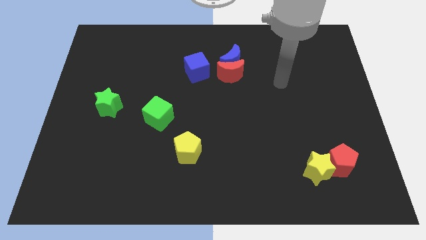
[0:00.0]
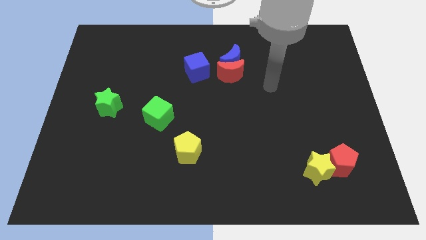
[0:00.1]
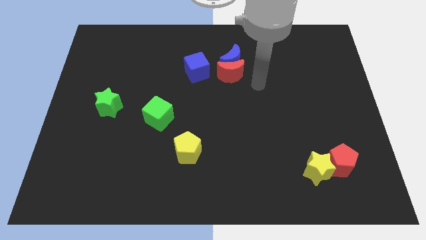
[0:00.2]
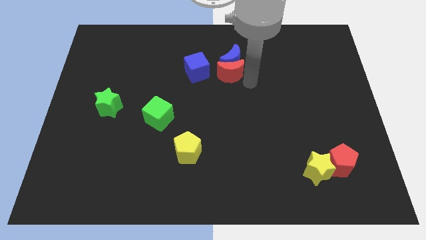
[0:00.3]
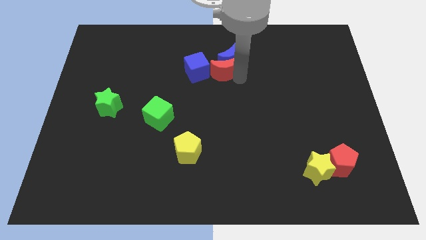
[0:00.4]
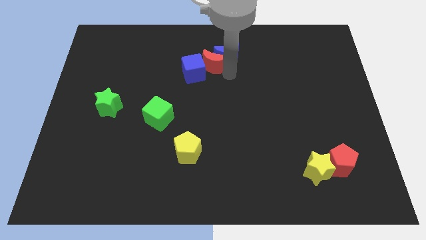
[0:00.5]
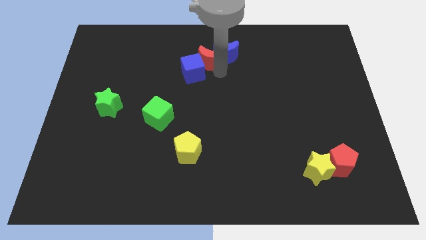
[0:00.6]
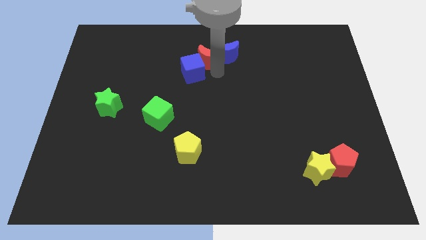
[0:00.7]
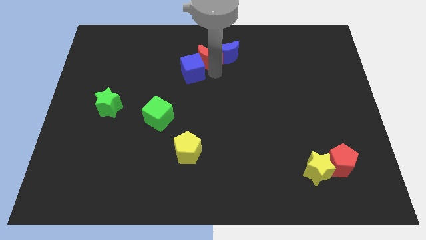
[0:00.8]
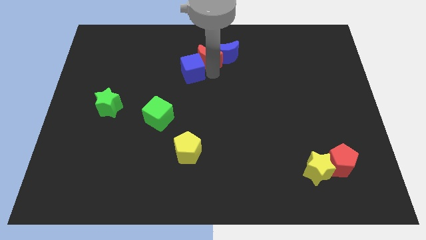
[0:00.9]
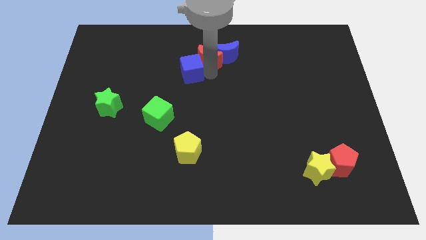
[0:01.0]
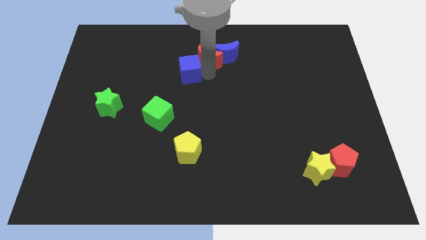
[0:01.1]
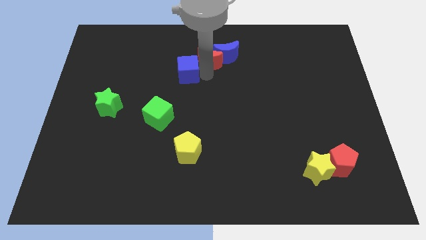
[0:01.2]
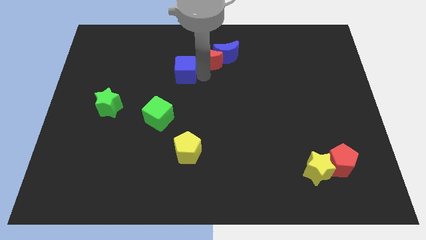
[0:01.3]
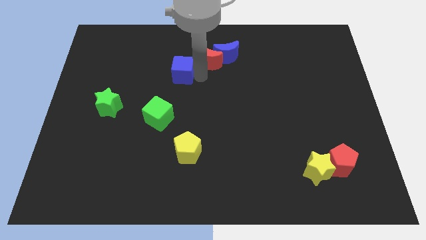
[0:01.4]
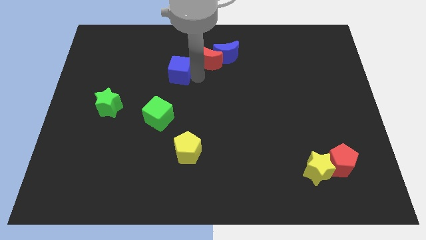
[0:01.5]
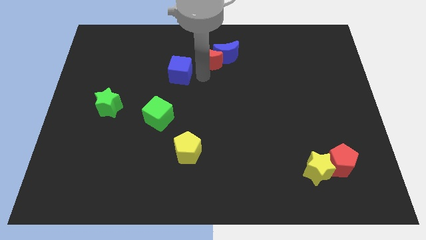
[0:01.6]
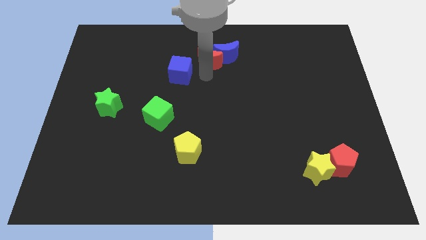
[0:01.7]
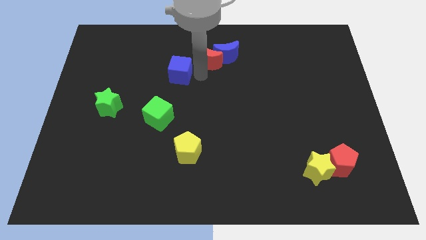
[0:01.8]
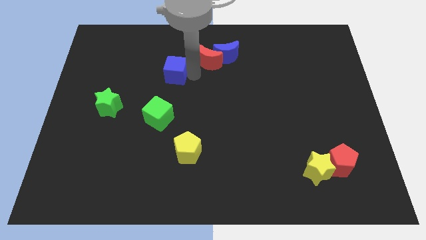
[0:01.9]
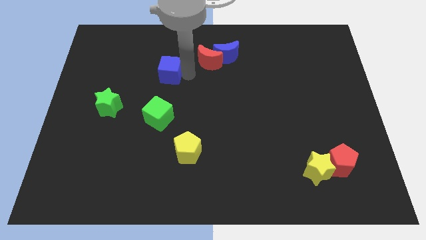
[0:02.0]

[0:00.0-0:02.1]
slightly move the blue cube left

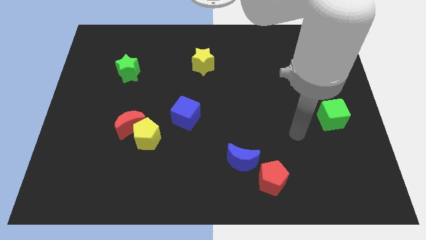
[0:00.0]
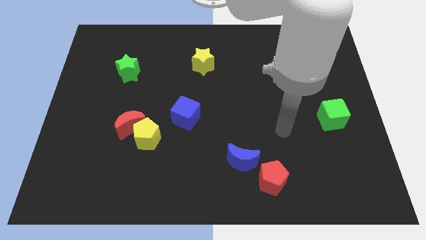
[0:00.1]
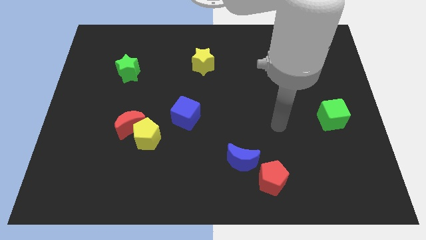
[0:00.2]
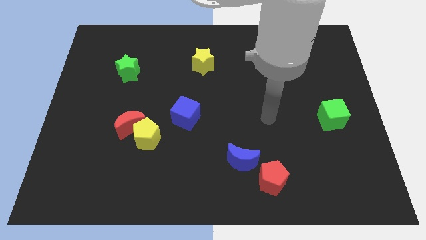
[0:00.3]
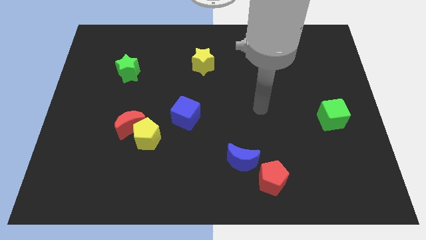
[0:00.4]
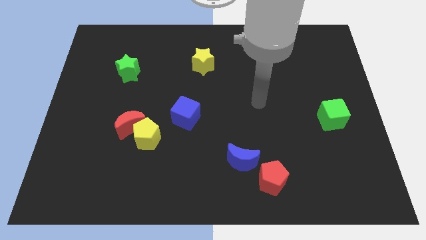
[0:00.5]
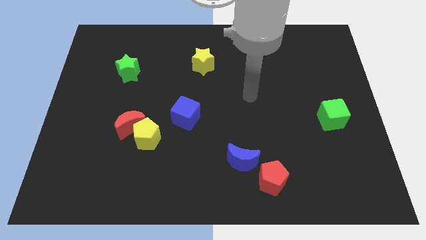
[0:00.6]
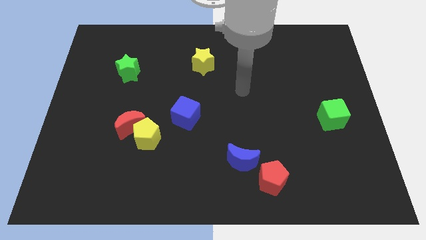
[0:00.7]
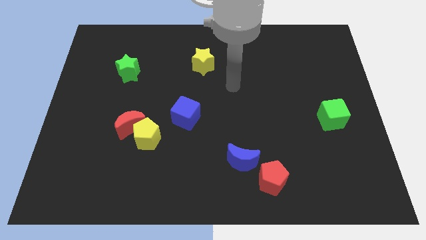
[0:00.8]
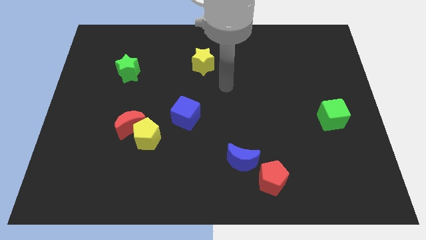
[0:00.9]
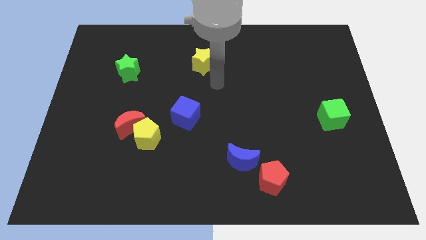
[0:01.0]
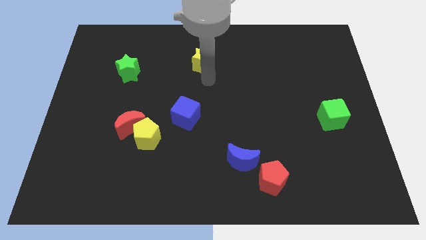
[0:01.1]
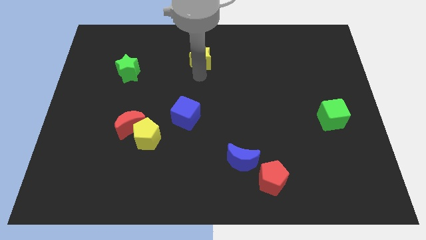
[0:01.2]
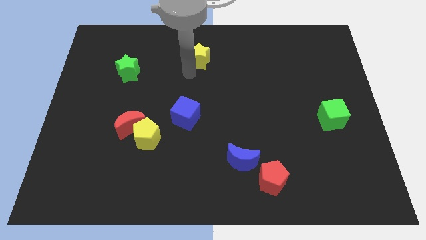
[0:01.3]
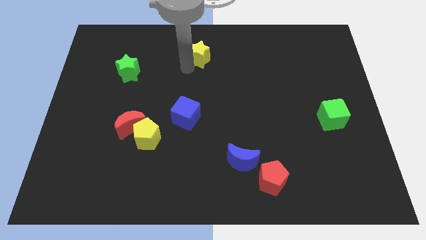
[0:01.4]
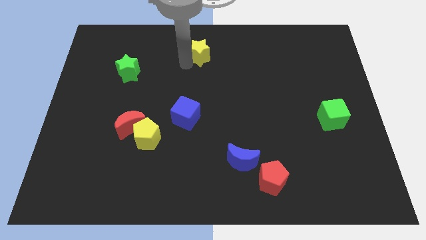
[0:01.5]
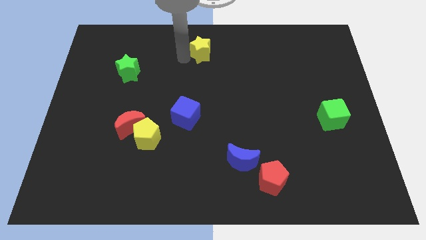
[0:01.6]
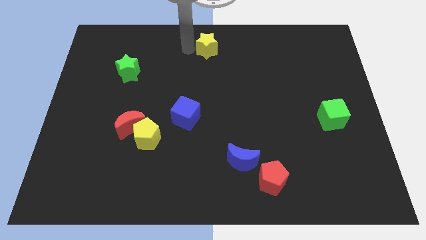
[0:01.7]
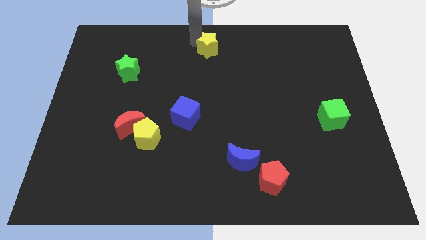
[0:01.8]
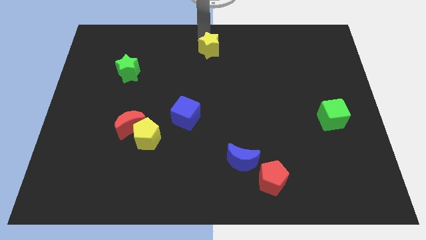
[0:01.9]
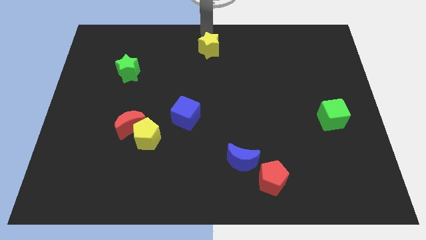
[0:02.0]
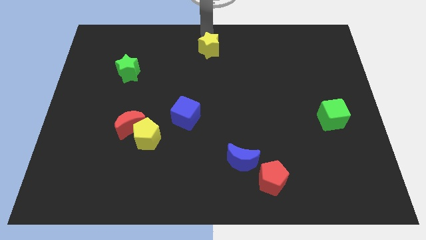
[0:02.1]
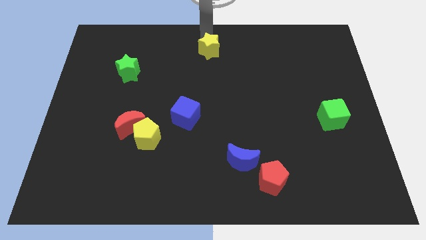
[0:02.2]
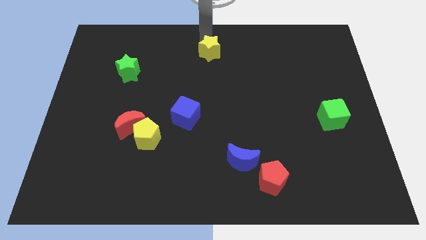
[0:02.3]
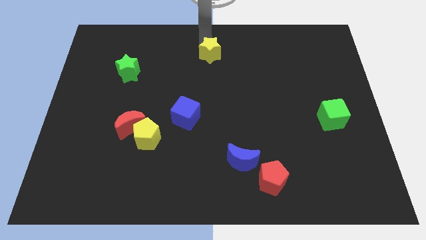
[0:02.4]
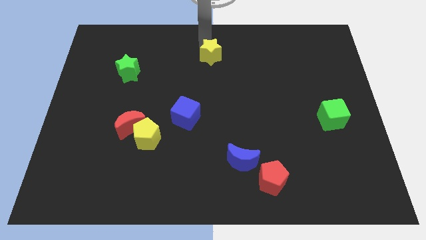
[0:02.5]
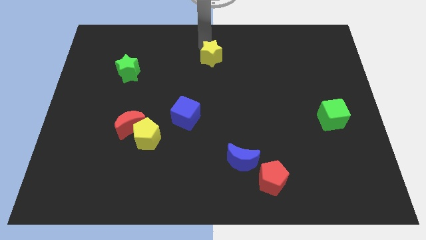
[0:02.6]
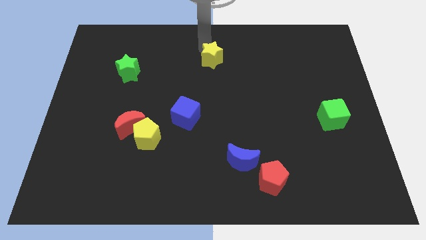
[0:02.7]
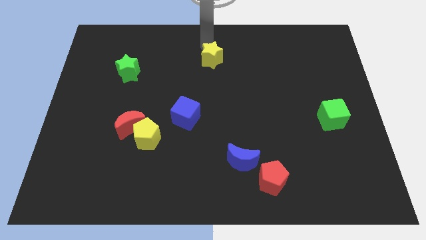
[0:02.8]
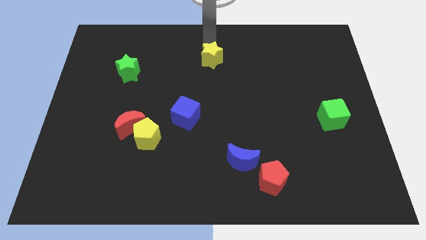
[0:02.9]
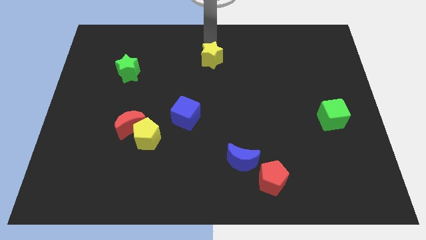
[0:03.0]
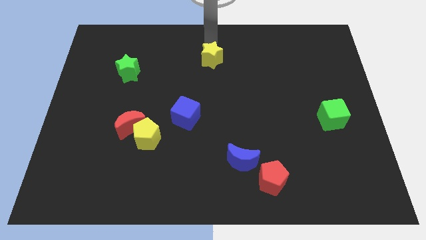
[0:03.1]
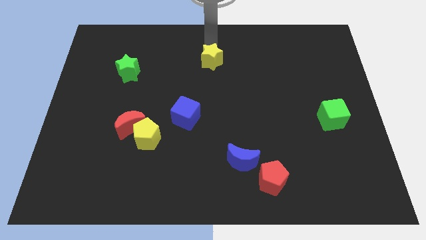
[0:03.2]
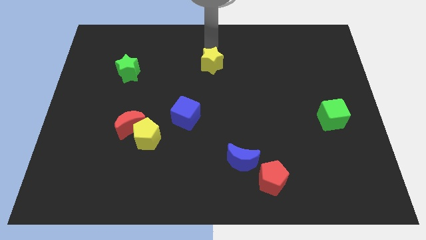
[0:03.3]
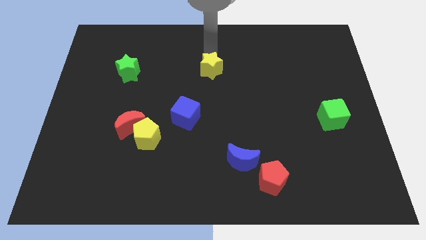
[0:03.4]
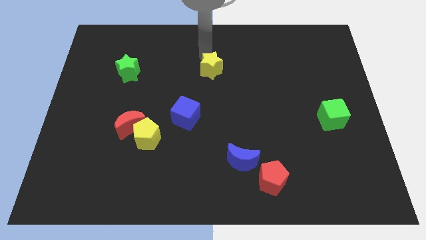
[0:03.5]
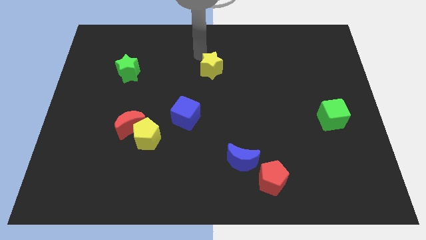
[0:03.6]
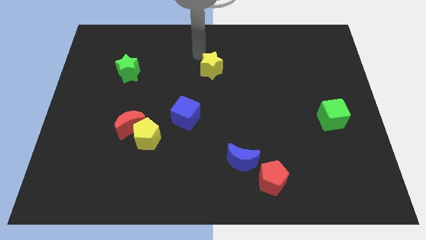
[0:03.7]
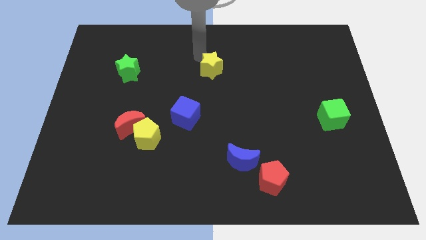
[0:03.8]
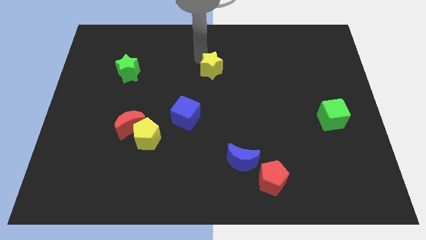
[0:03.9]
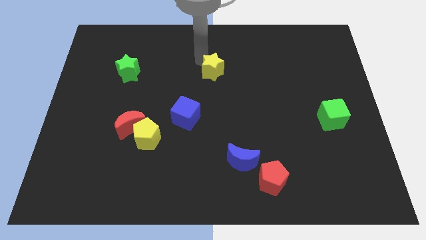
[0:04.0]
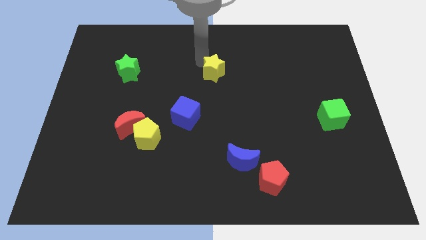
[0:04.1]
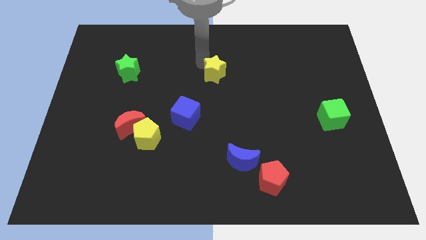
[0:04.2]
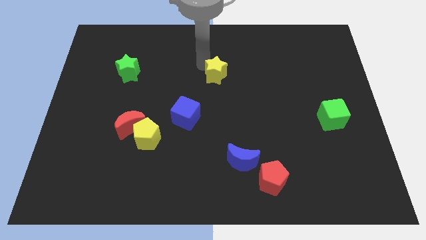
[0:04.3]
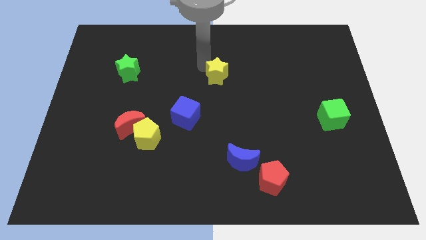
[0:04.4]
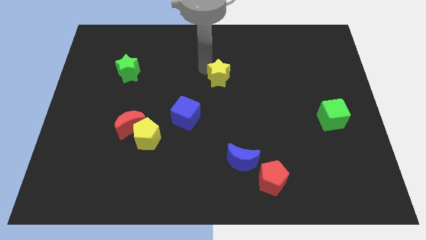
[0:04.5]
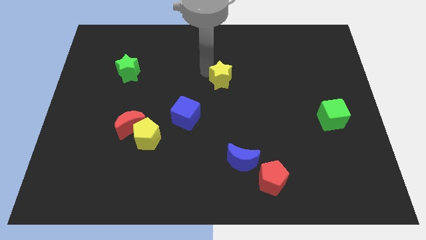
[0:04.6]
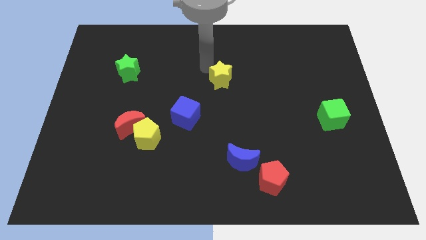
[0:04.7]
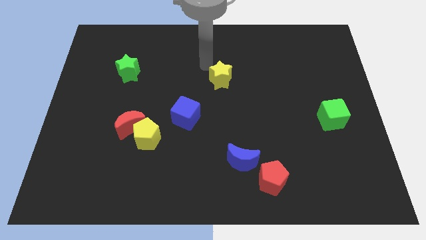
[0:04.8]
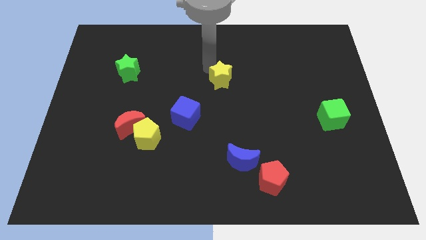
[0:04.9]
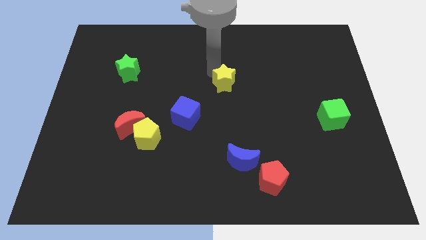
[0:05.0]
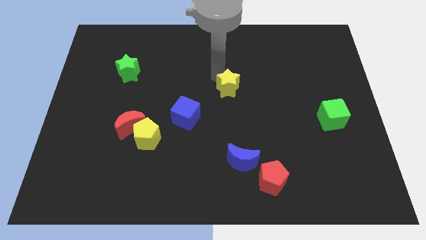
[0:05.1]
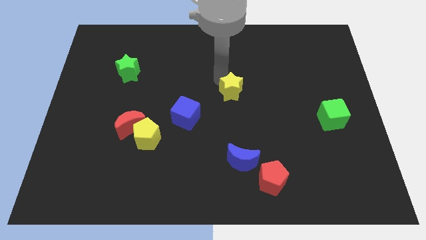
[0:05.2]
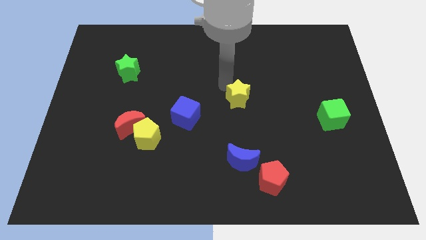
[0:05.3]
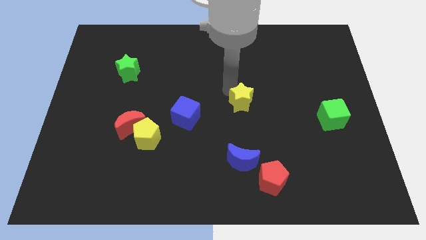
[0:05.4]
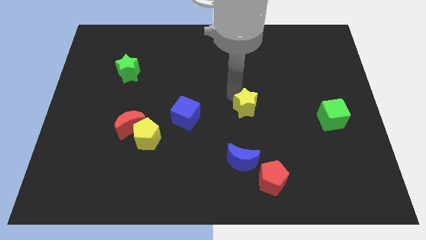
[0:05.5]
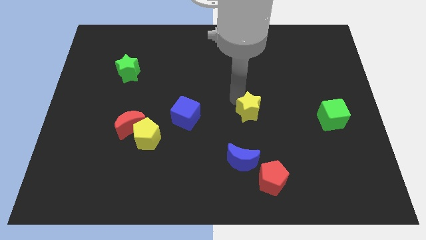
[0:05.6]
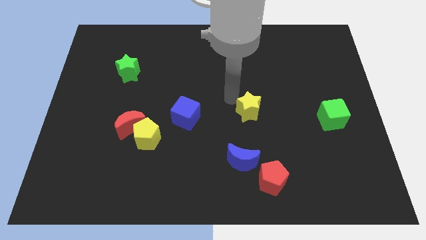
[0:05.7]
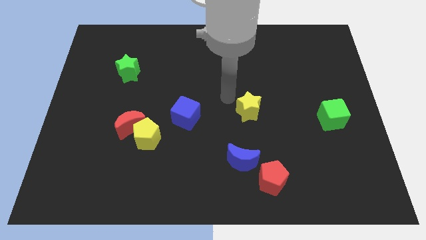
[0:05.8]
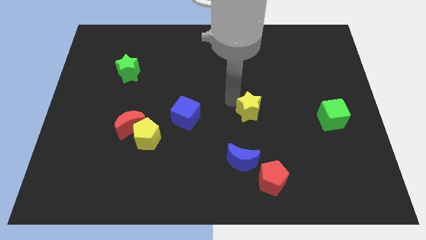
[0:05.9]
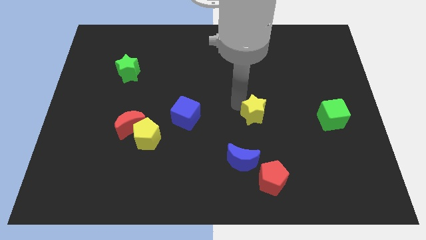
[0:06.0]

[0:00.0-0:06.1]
push the yellow star down and then to the right

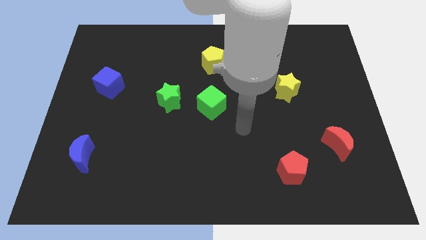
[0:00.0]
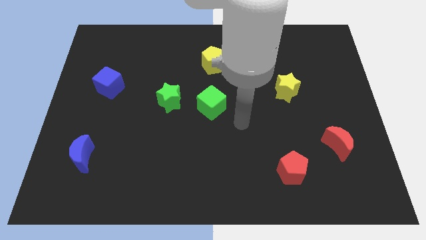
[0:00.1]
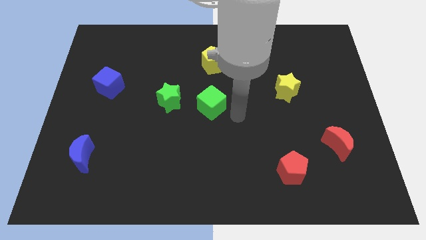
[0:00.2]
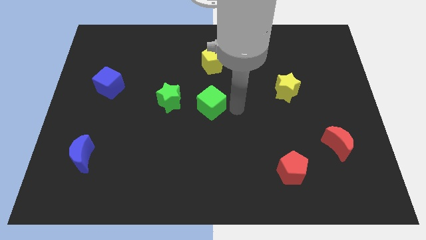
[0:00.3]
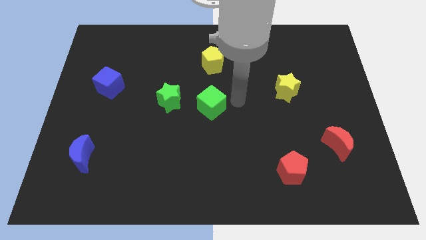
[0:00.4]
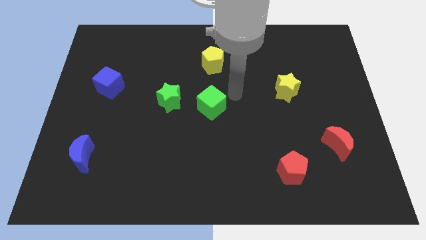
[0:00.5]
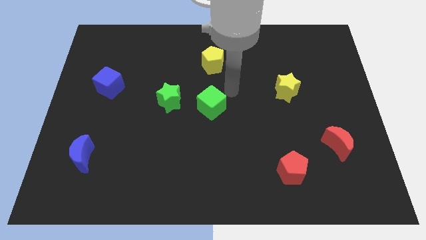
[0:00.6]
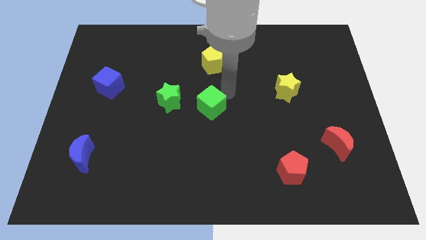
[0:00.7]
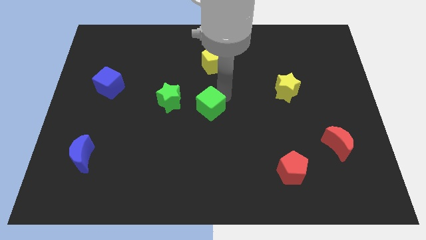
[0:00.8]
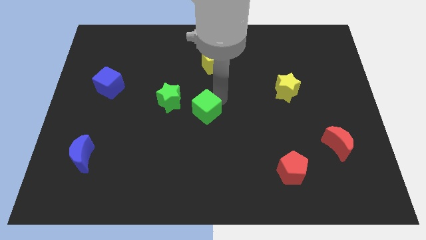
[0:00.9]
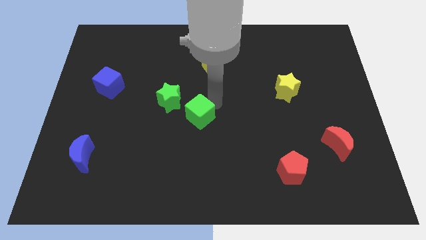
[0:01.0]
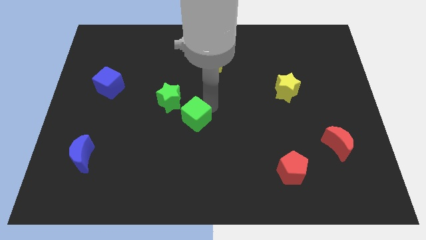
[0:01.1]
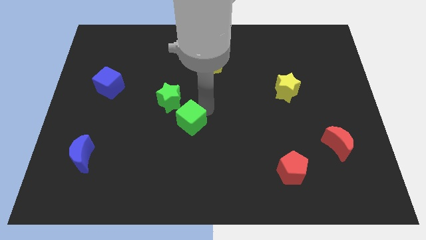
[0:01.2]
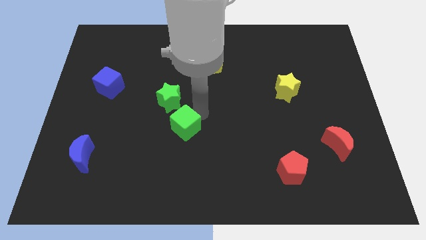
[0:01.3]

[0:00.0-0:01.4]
slightly move the green cube down and left
